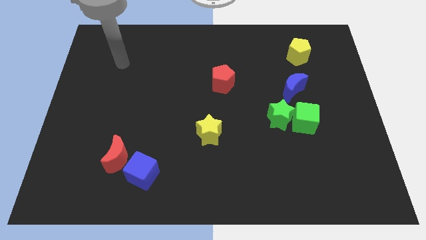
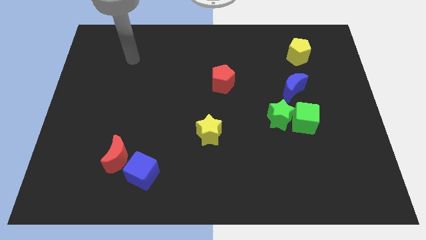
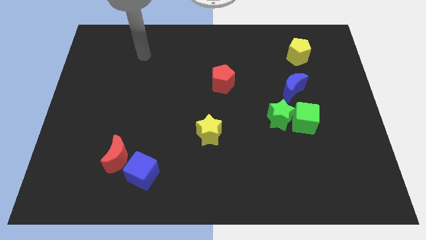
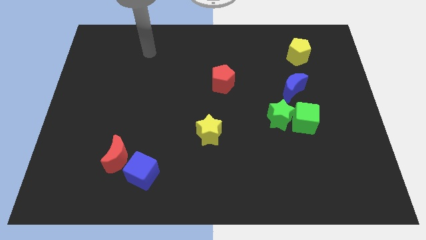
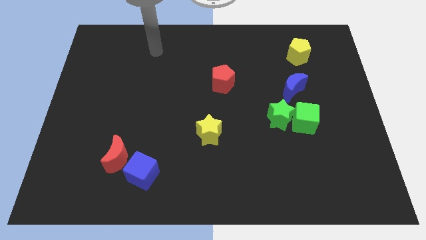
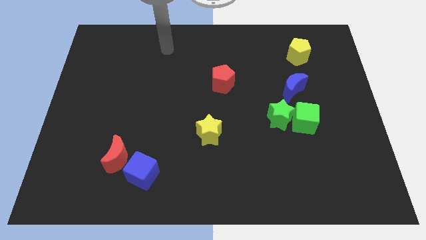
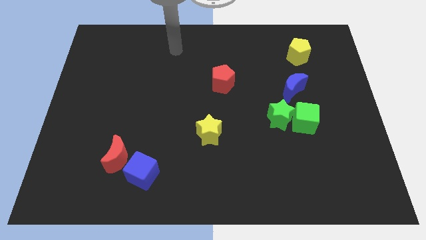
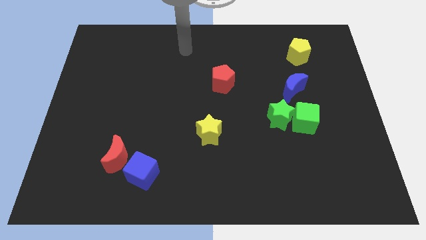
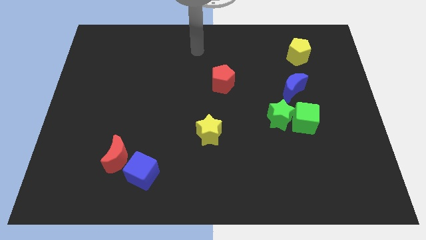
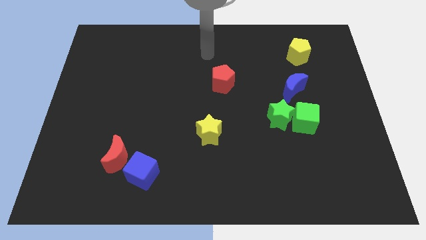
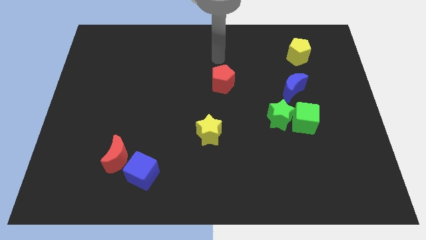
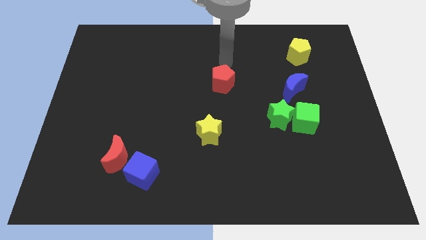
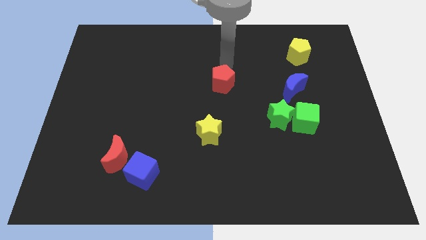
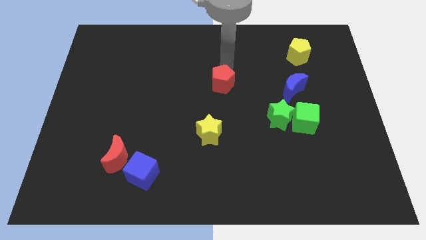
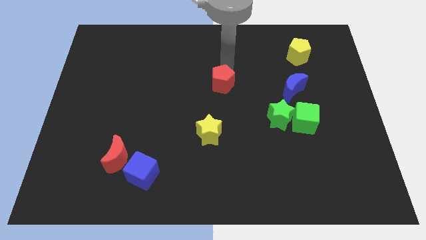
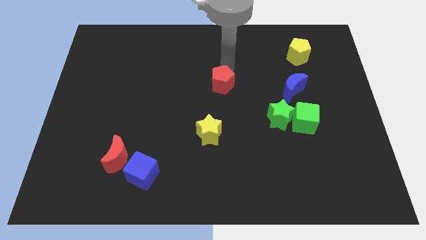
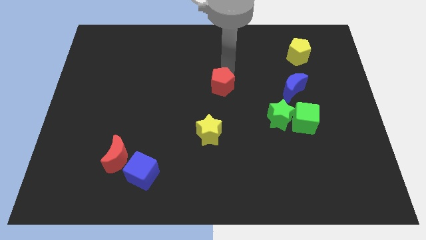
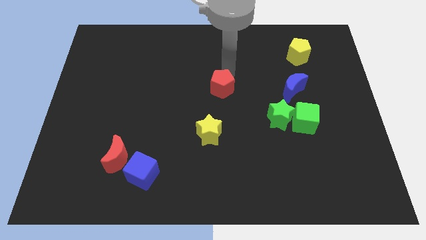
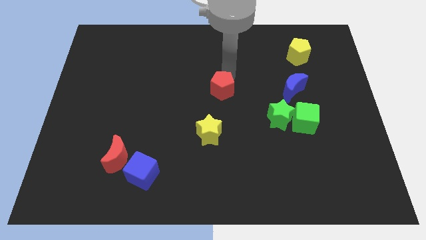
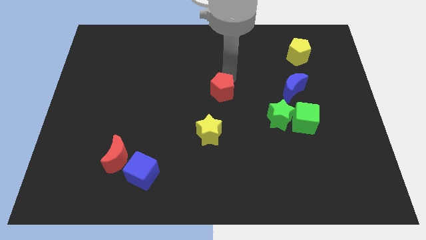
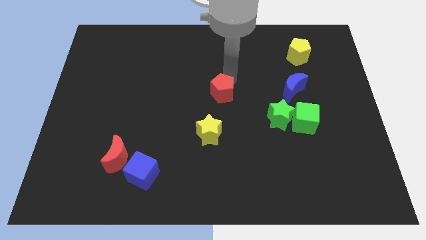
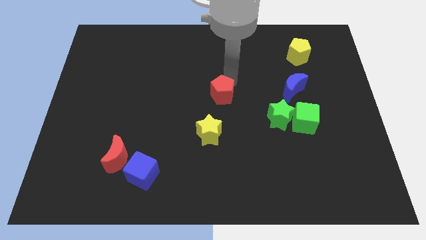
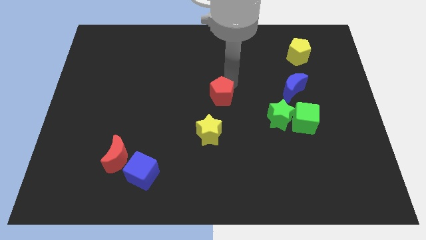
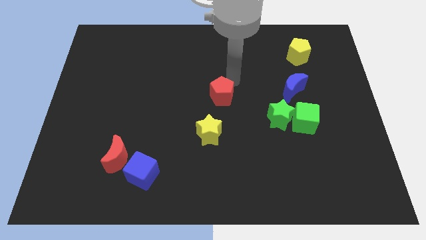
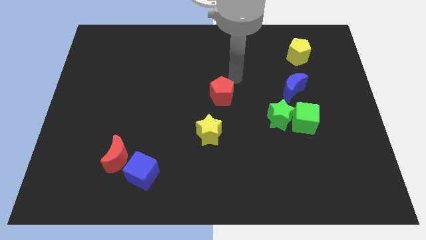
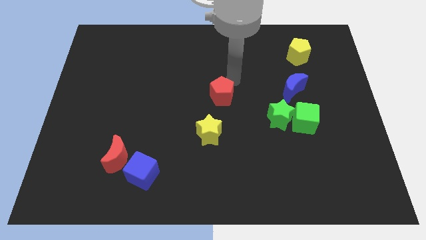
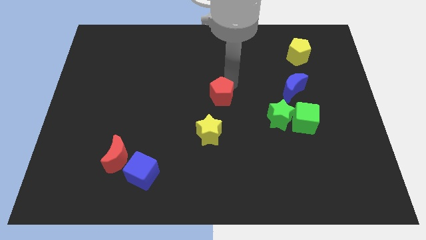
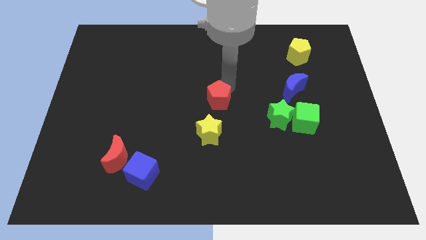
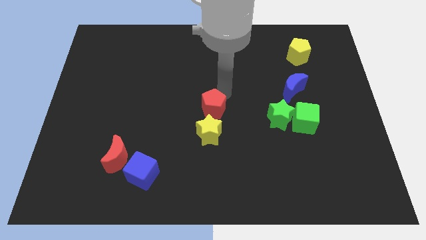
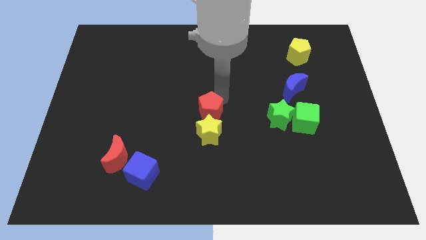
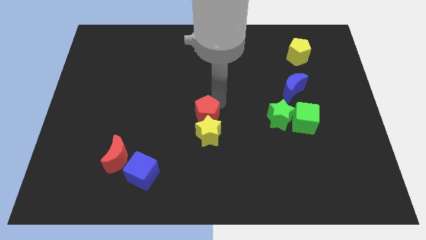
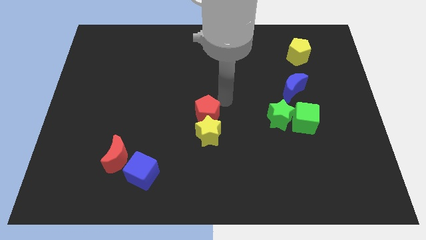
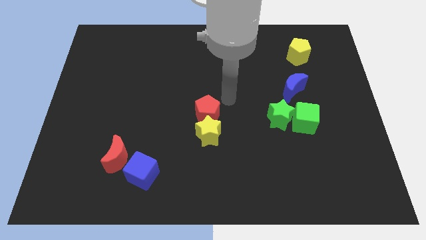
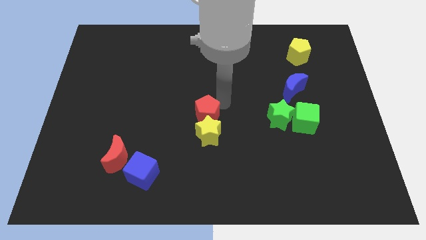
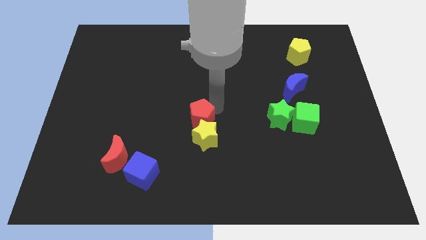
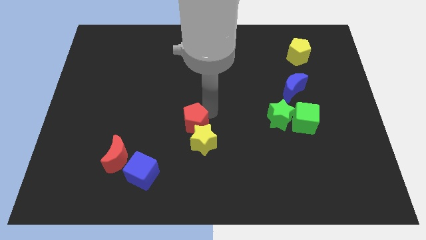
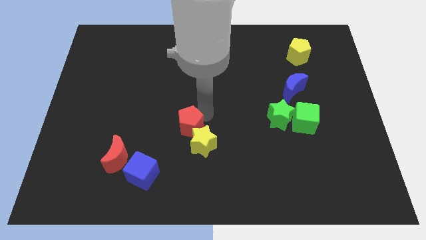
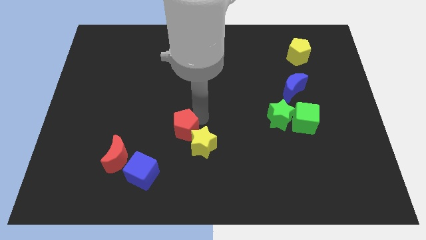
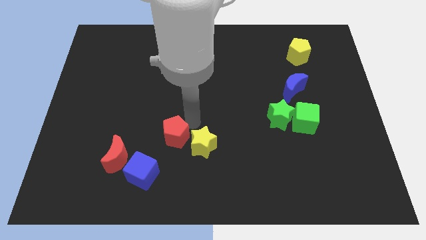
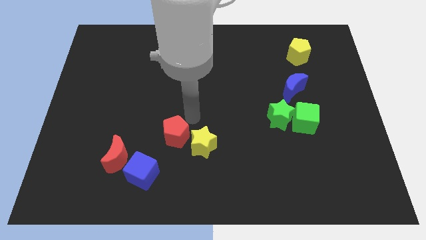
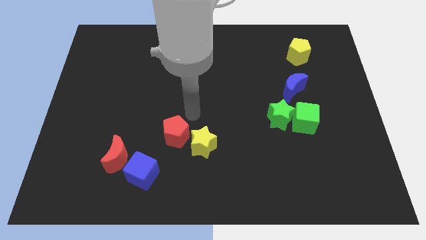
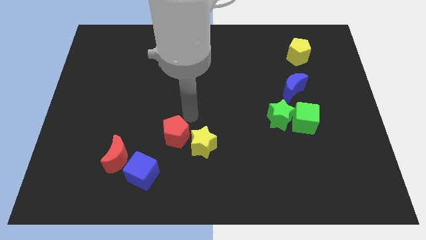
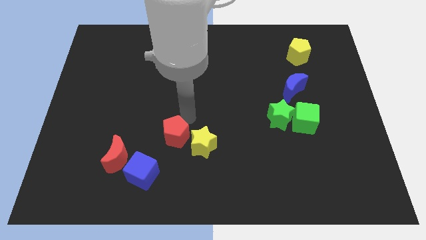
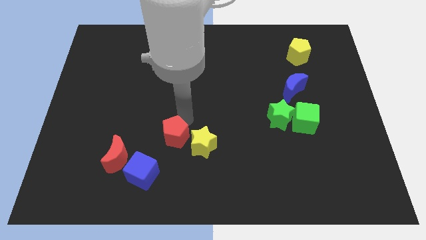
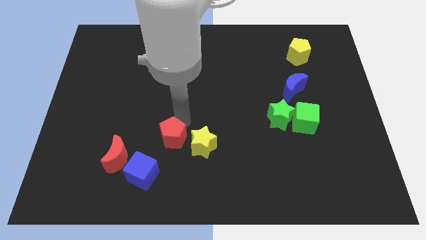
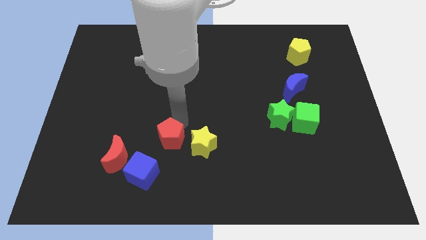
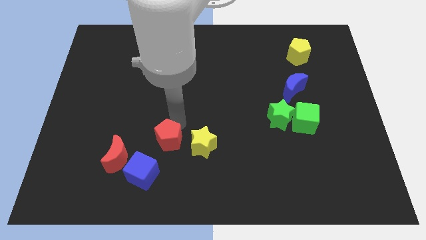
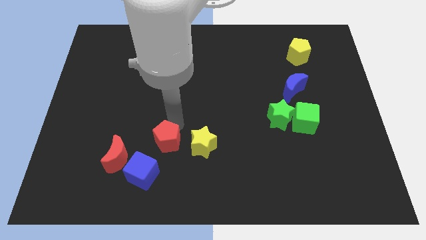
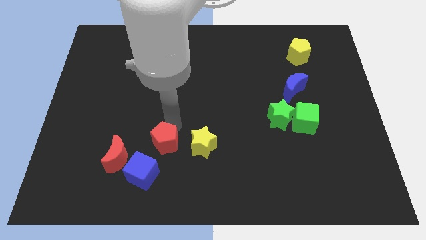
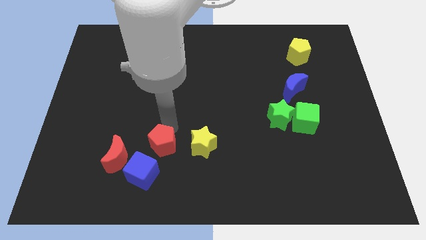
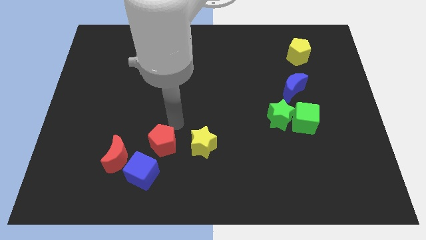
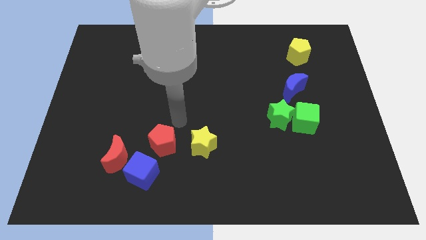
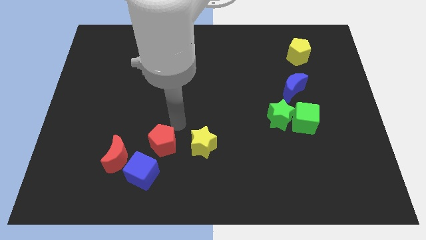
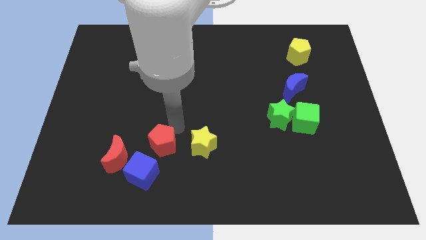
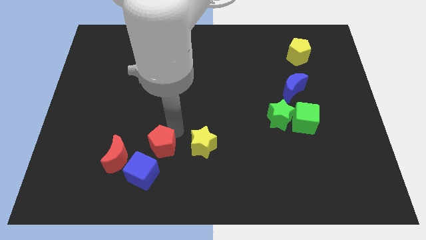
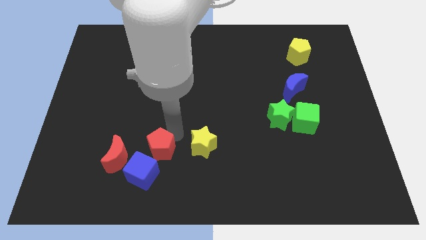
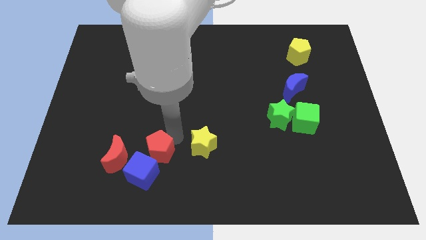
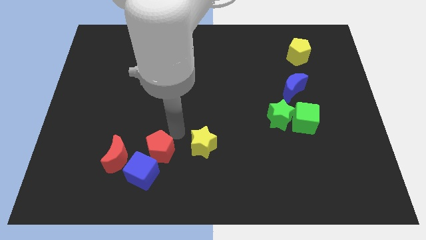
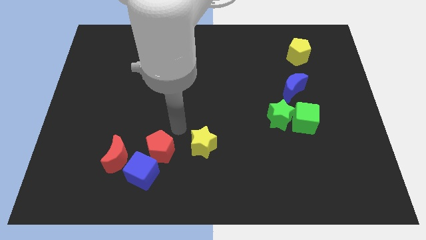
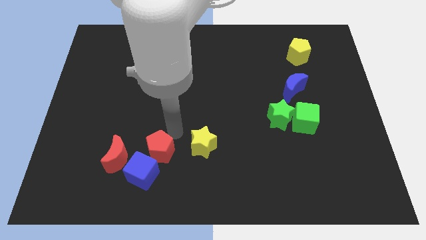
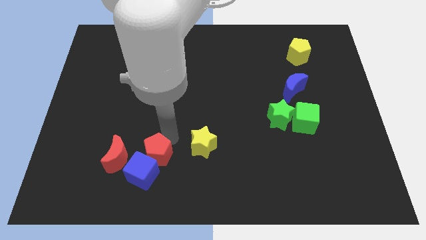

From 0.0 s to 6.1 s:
slide the red pentagon next to the blue cube

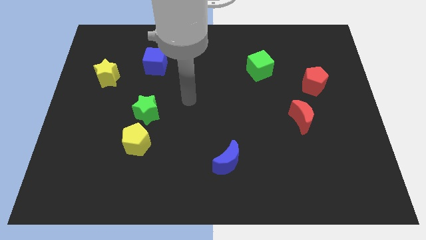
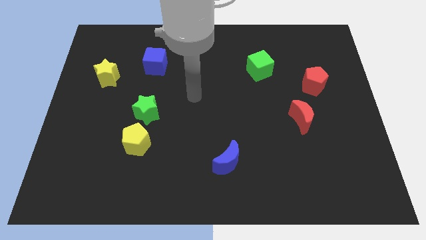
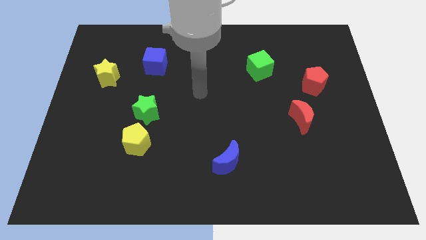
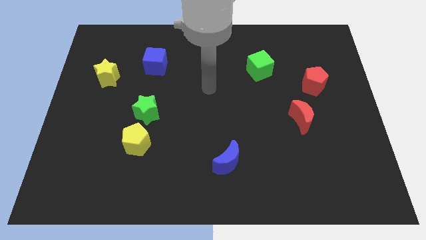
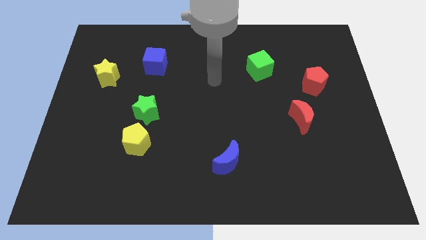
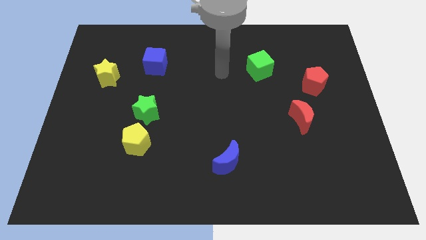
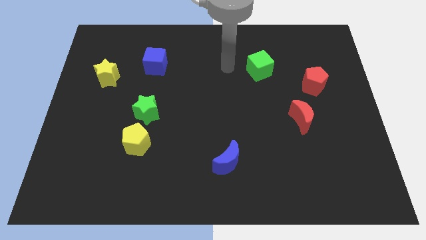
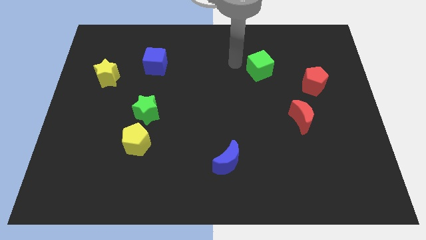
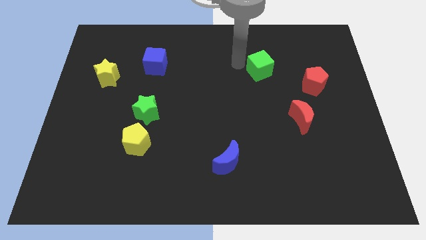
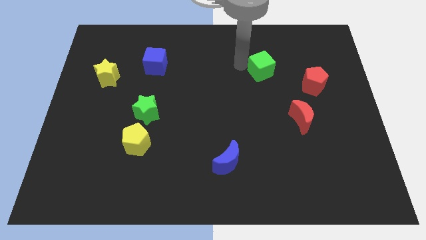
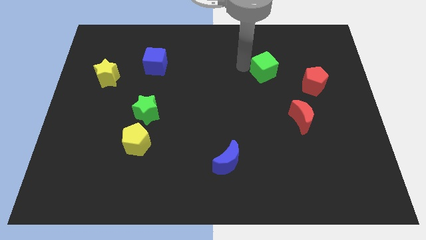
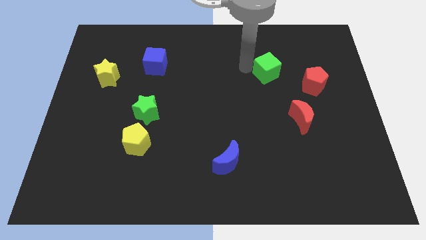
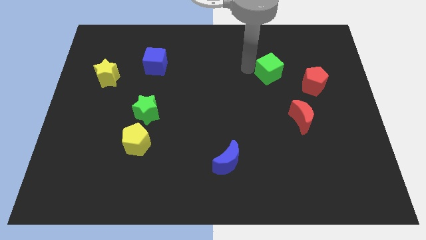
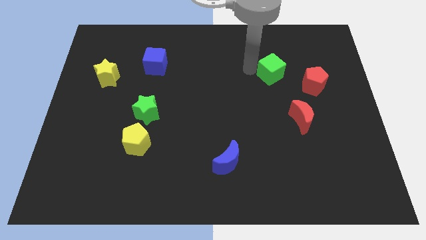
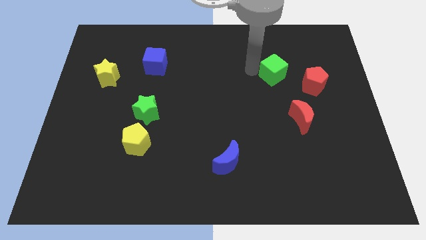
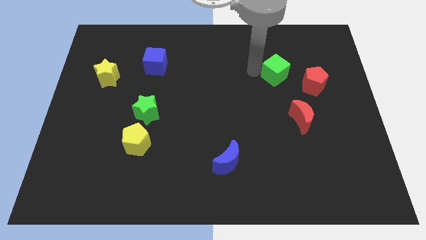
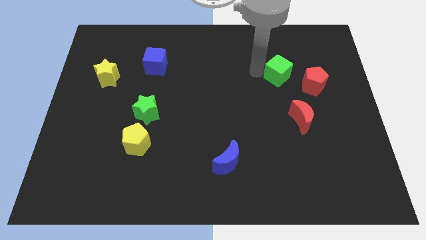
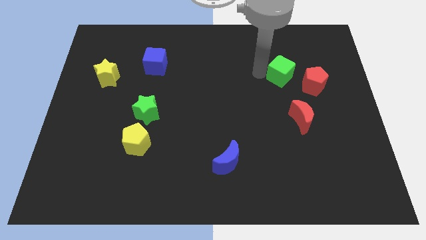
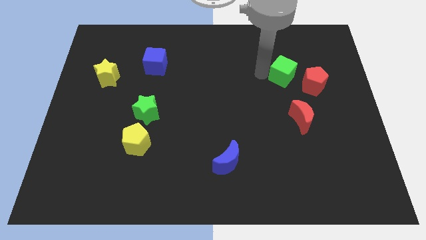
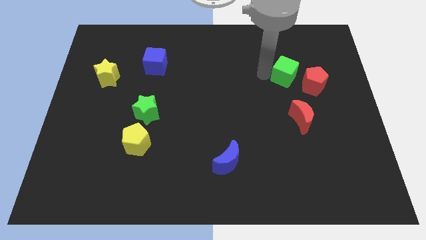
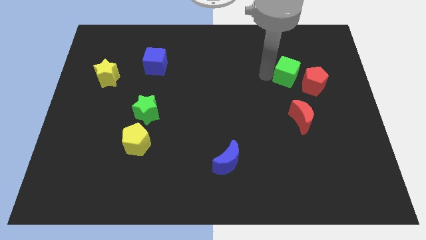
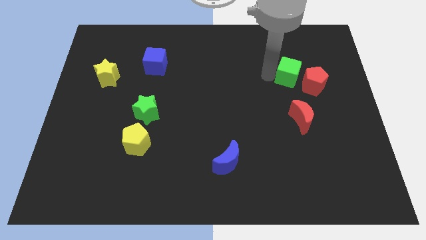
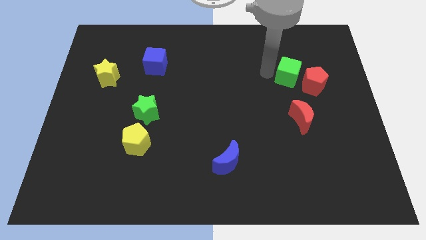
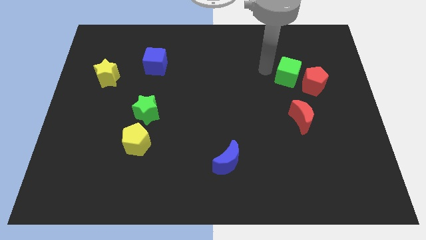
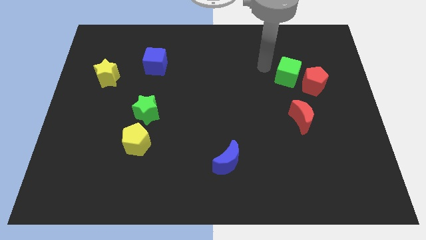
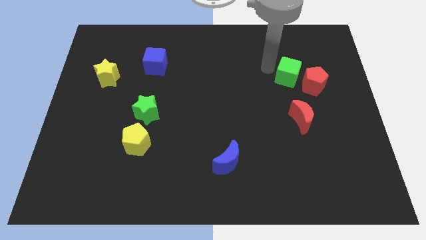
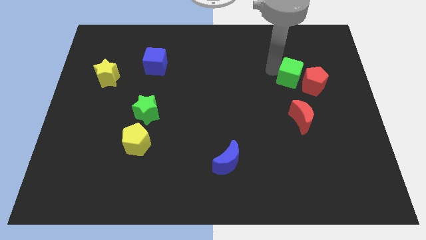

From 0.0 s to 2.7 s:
slide the green cube close to the red pentagon
